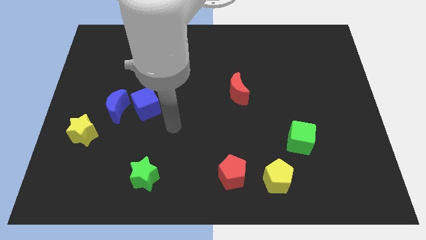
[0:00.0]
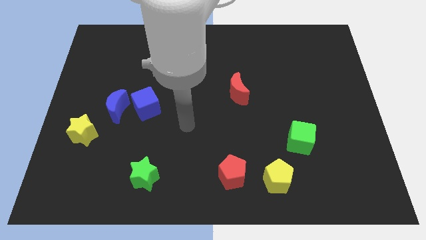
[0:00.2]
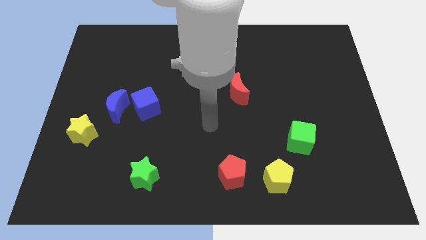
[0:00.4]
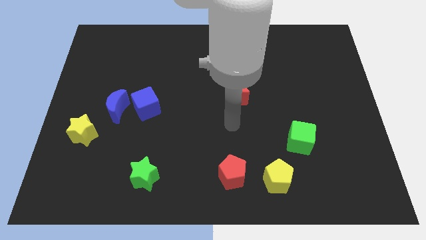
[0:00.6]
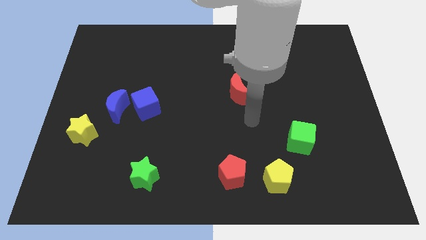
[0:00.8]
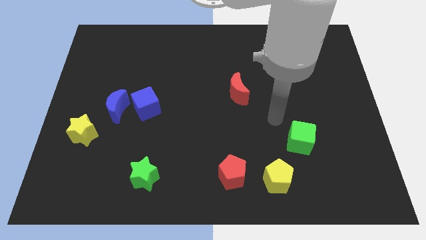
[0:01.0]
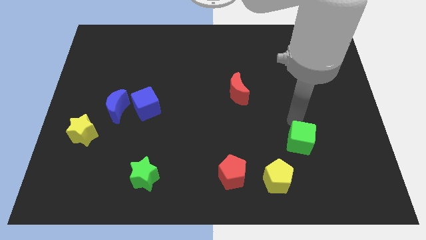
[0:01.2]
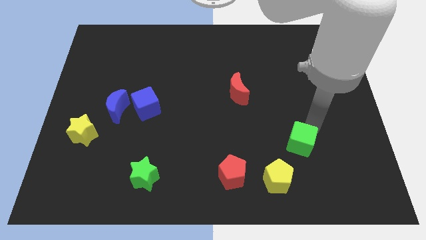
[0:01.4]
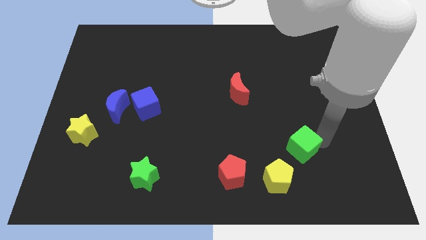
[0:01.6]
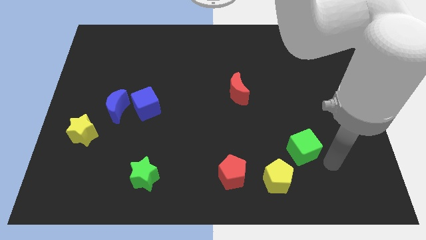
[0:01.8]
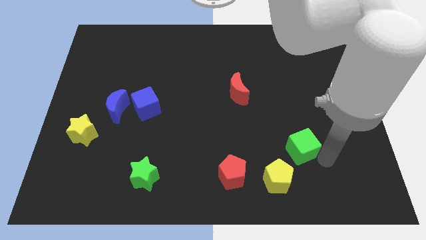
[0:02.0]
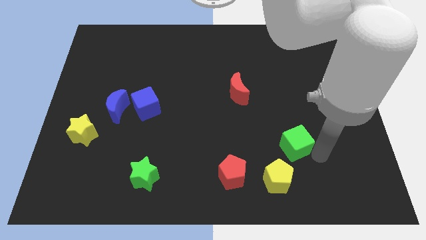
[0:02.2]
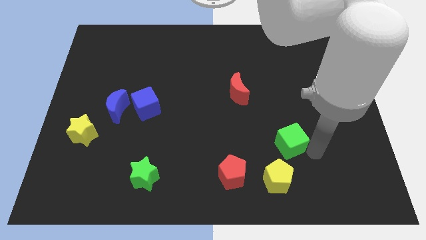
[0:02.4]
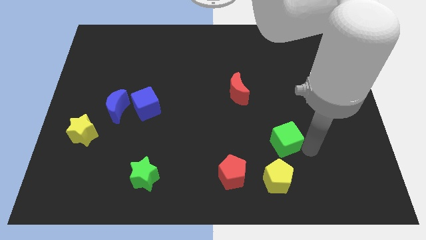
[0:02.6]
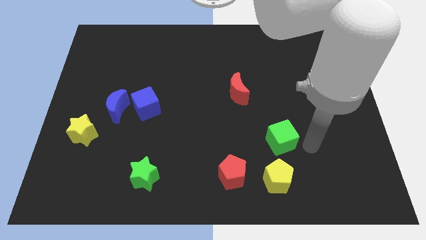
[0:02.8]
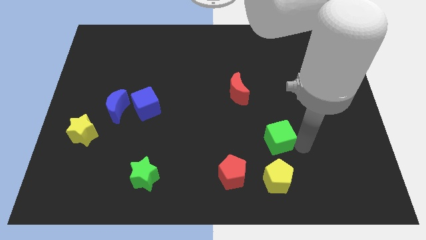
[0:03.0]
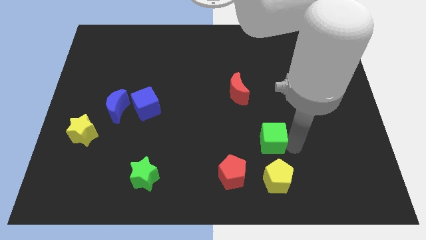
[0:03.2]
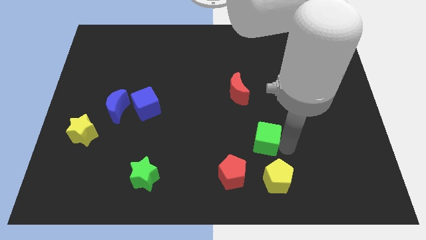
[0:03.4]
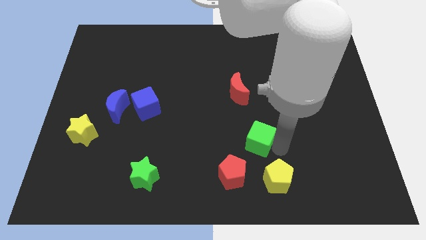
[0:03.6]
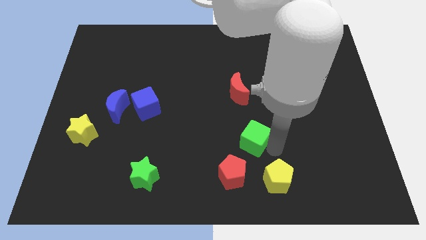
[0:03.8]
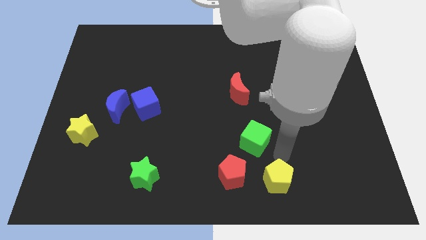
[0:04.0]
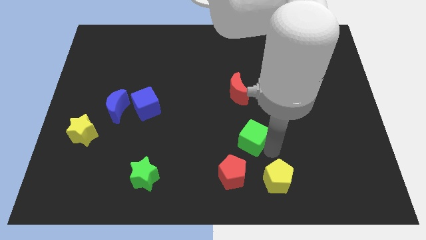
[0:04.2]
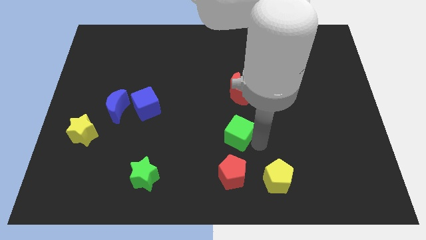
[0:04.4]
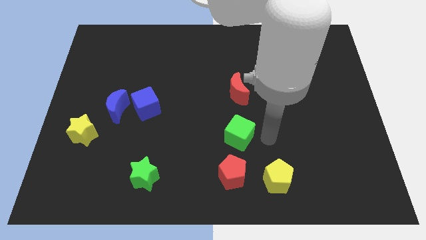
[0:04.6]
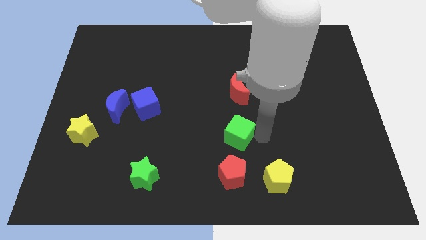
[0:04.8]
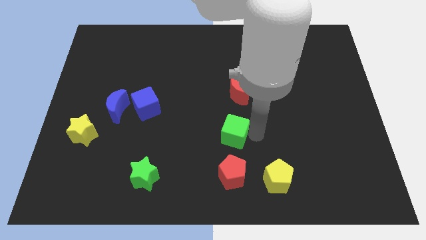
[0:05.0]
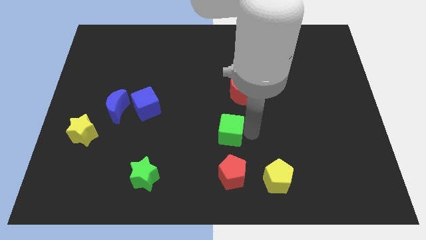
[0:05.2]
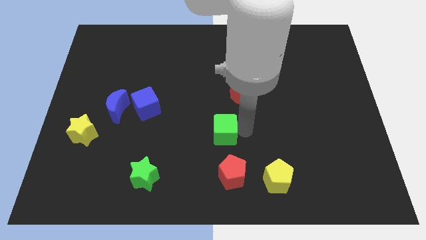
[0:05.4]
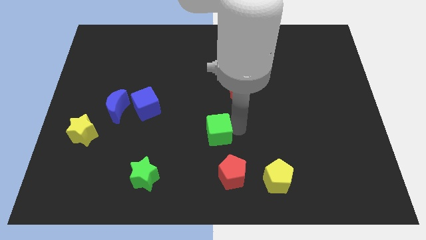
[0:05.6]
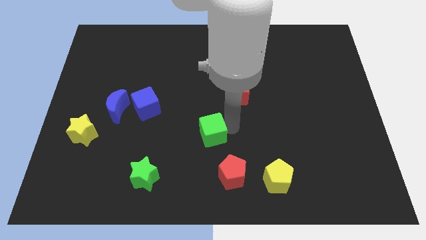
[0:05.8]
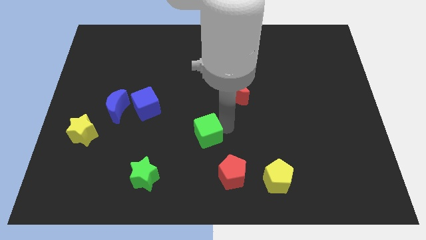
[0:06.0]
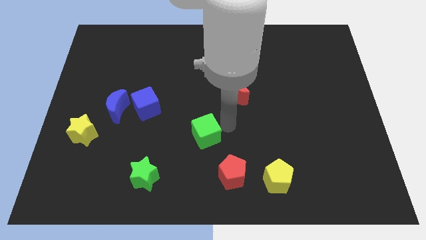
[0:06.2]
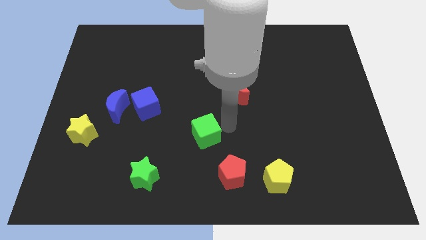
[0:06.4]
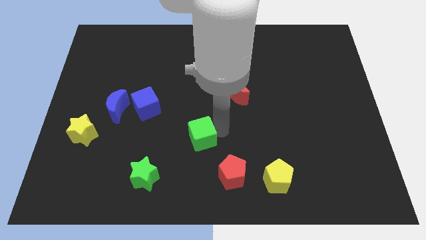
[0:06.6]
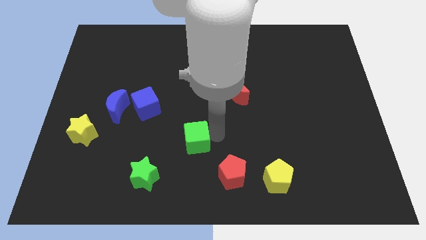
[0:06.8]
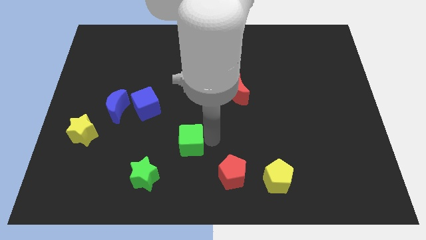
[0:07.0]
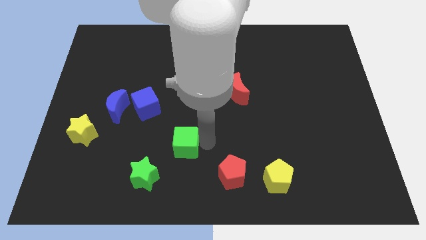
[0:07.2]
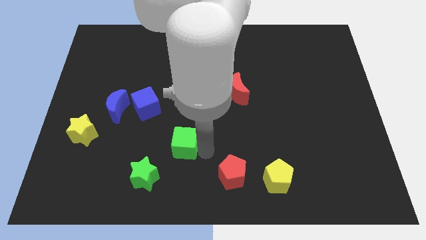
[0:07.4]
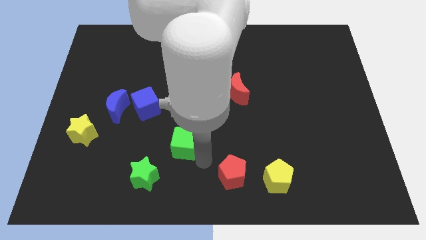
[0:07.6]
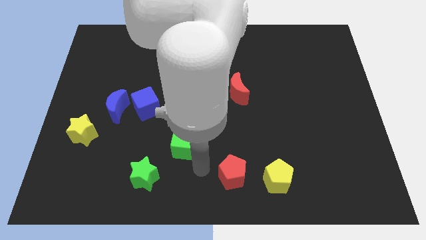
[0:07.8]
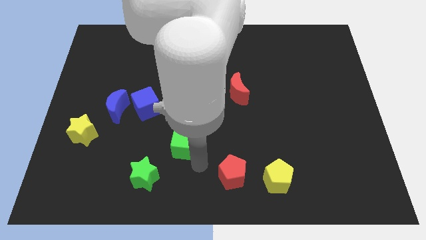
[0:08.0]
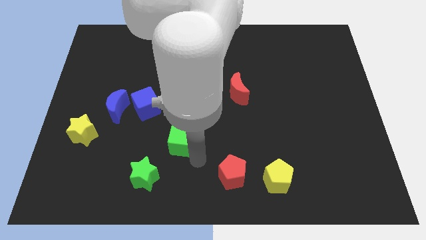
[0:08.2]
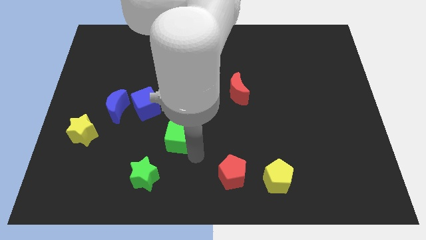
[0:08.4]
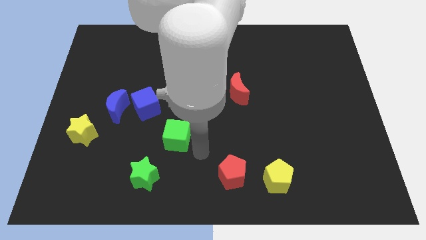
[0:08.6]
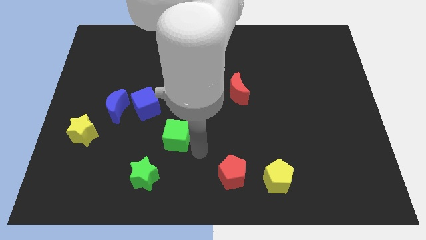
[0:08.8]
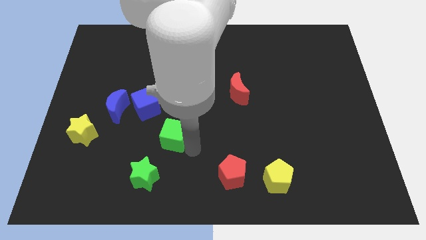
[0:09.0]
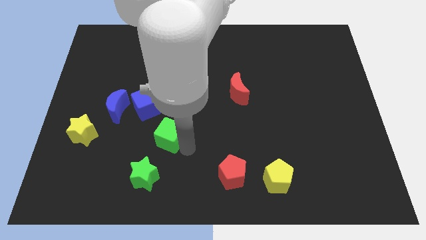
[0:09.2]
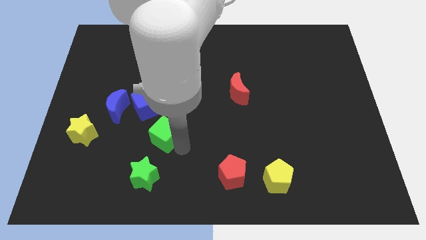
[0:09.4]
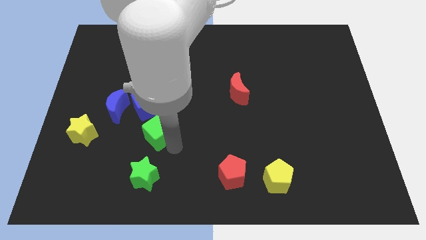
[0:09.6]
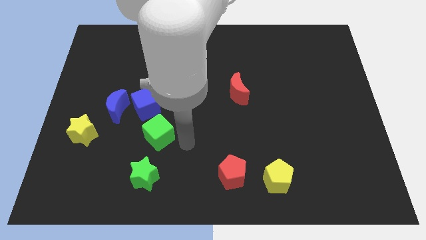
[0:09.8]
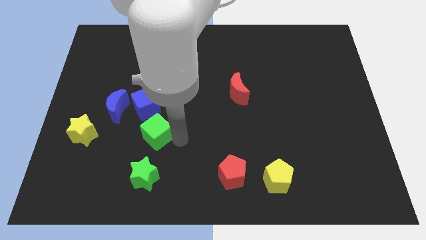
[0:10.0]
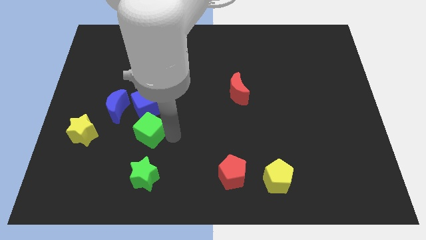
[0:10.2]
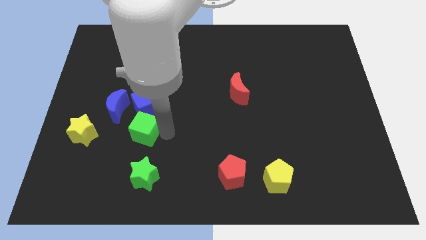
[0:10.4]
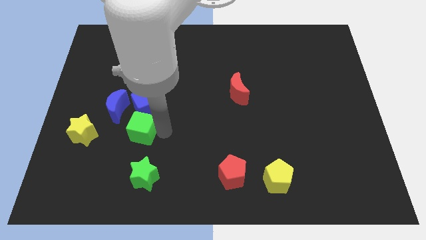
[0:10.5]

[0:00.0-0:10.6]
push the green cube to the bottom left of the blue cube

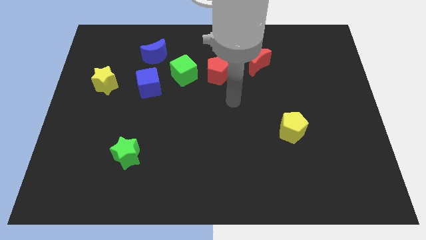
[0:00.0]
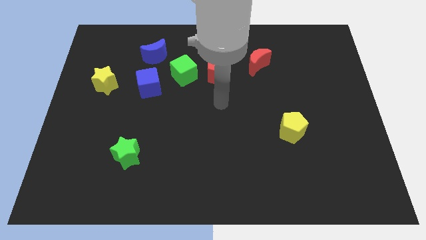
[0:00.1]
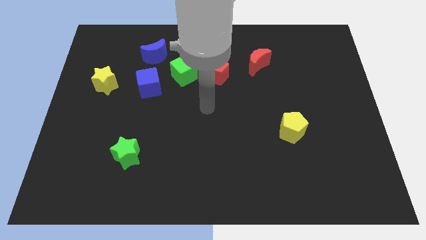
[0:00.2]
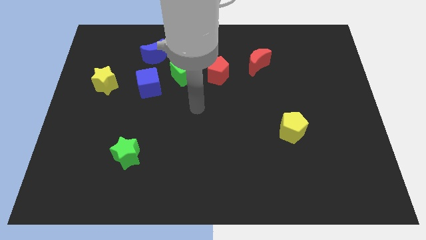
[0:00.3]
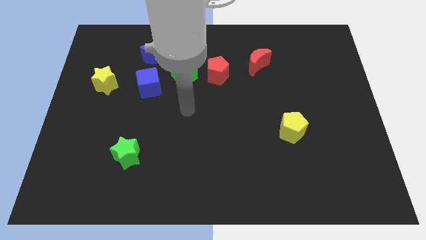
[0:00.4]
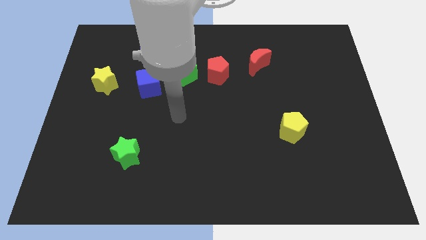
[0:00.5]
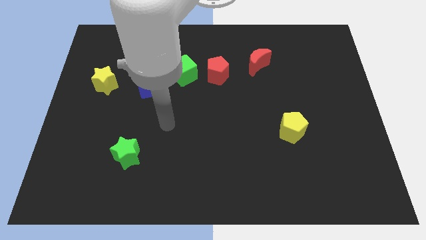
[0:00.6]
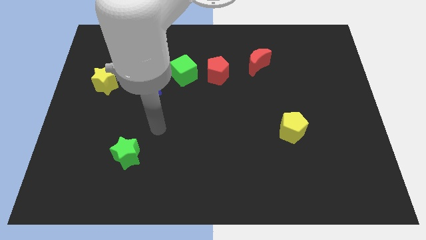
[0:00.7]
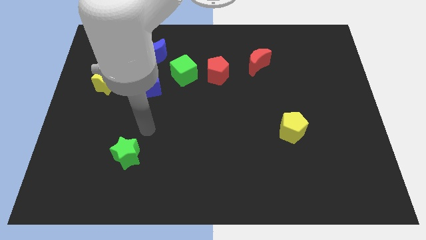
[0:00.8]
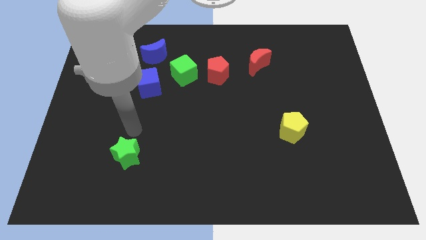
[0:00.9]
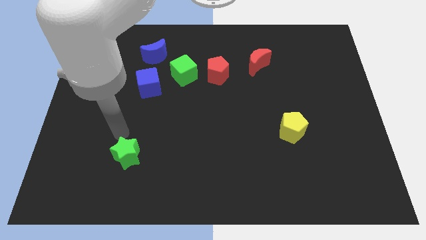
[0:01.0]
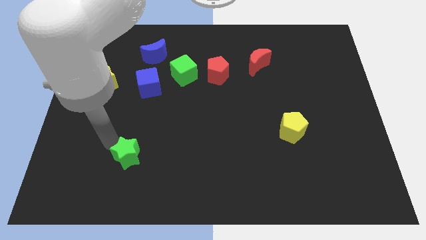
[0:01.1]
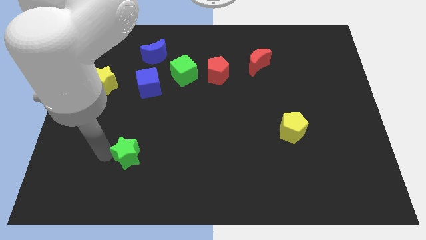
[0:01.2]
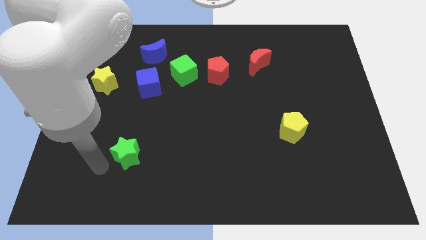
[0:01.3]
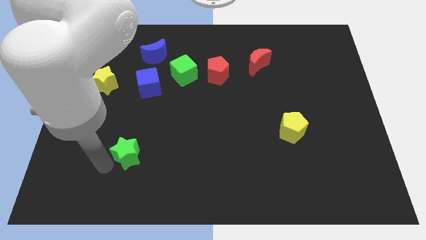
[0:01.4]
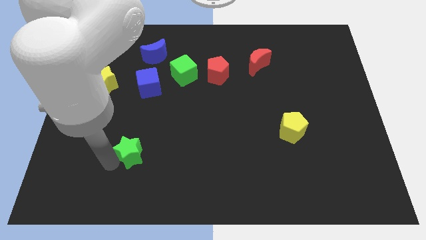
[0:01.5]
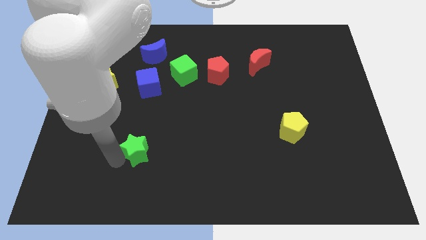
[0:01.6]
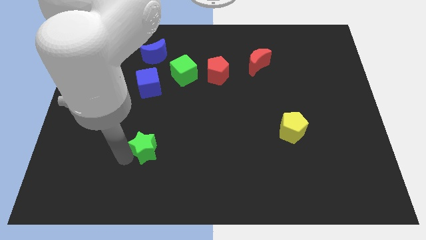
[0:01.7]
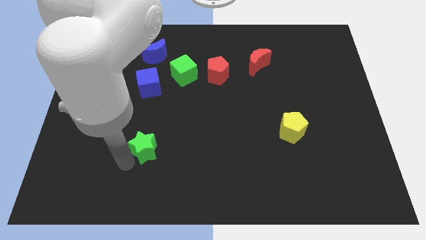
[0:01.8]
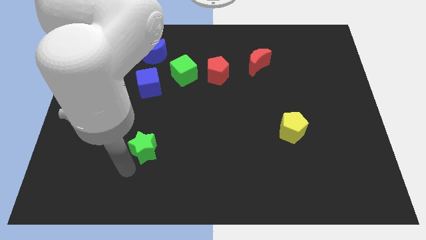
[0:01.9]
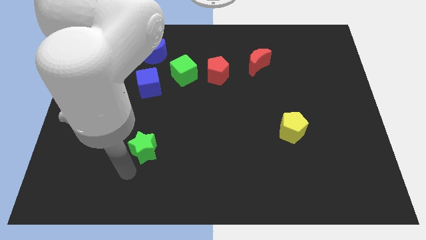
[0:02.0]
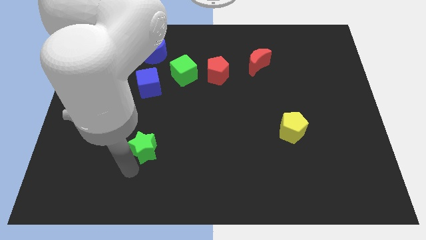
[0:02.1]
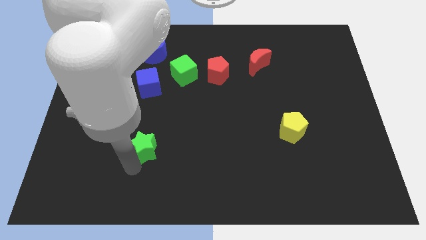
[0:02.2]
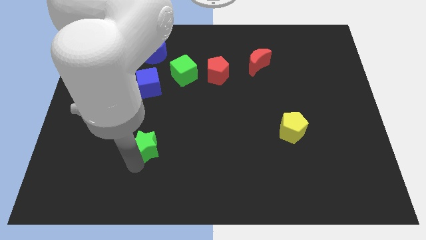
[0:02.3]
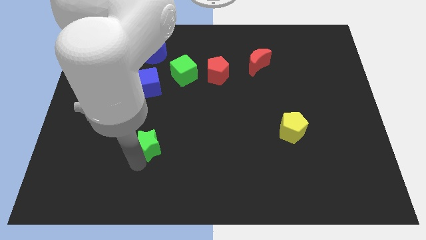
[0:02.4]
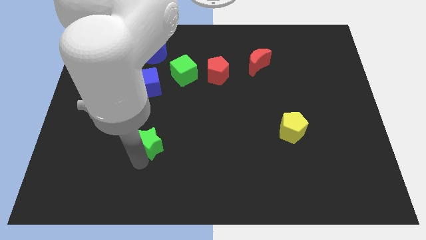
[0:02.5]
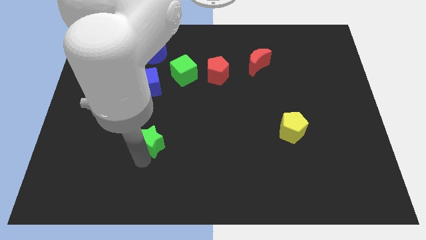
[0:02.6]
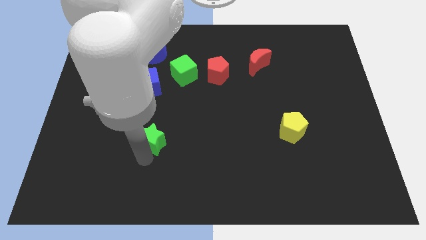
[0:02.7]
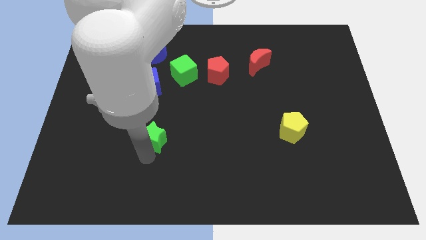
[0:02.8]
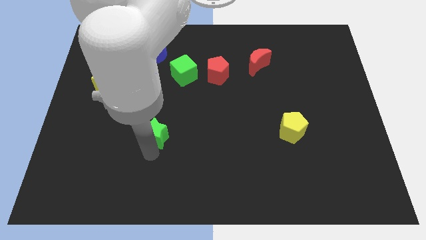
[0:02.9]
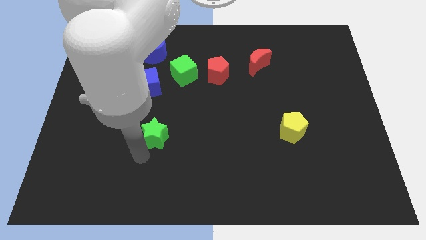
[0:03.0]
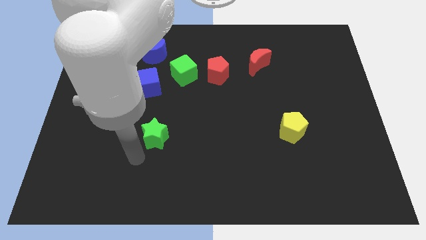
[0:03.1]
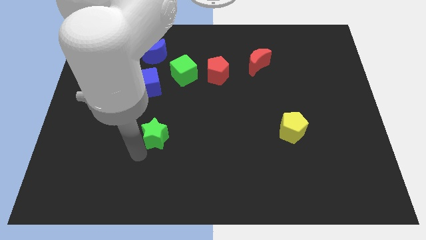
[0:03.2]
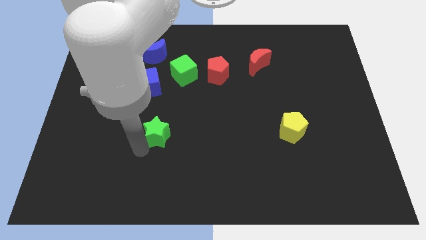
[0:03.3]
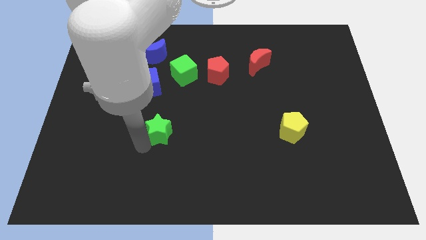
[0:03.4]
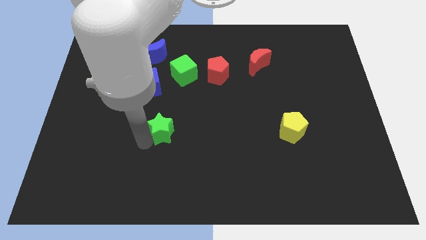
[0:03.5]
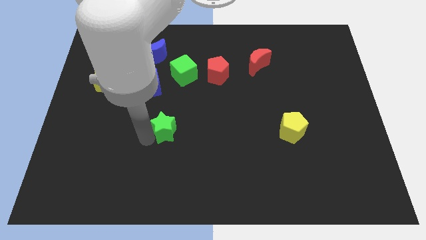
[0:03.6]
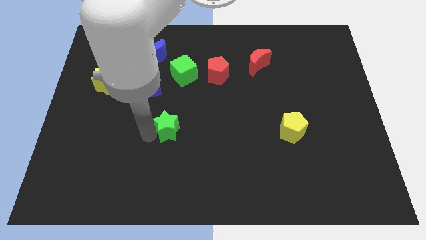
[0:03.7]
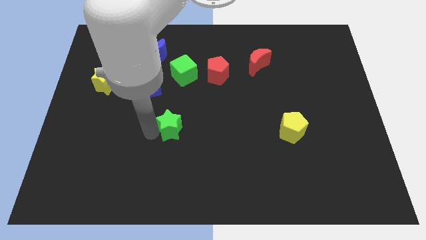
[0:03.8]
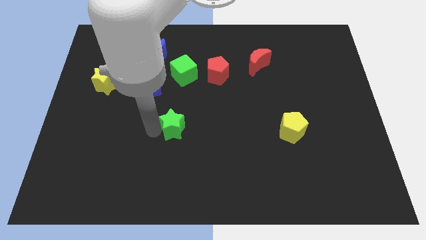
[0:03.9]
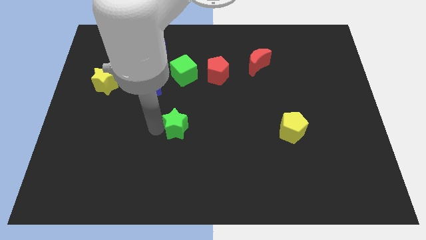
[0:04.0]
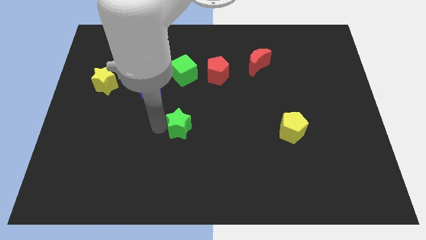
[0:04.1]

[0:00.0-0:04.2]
slide the green star to the bottom of the green cube
